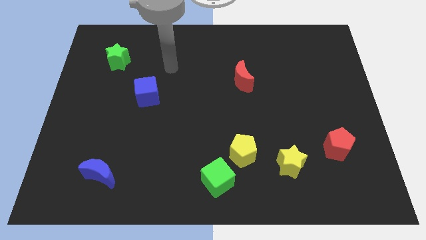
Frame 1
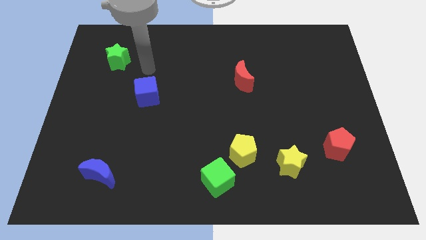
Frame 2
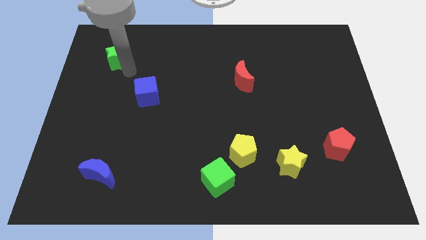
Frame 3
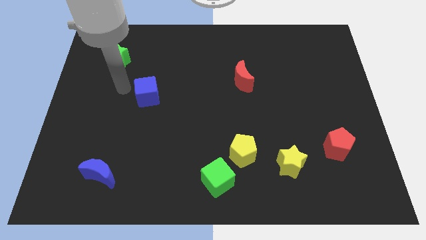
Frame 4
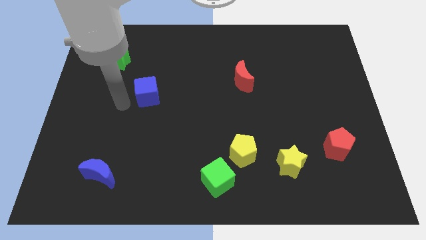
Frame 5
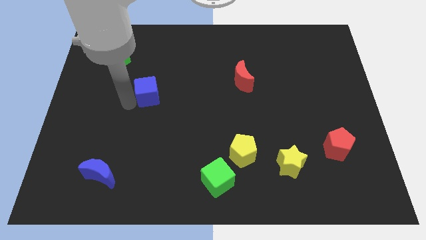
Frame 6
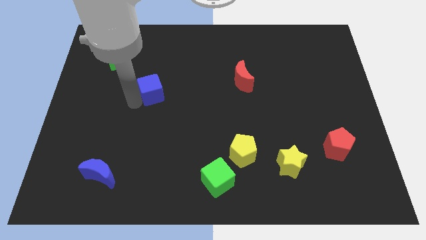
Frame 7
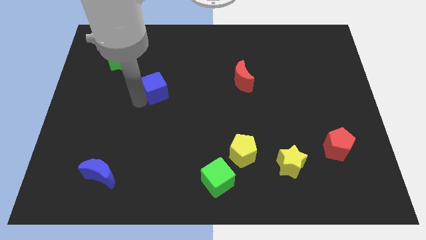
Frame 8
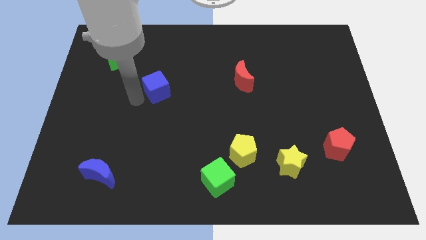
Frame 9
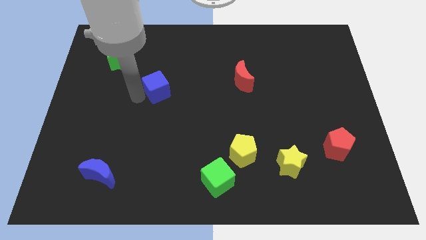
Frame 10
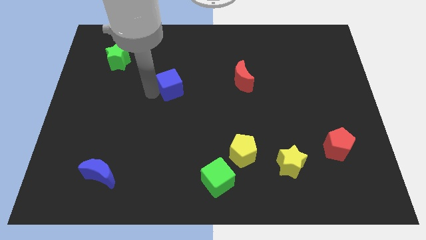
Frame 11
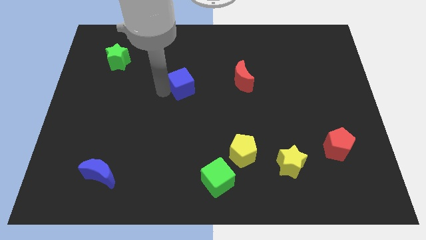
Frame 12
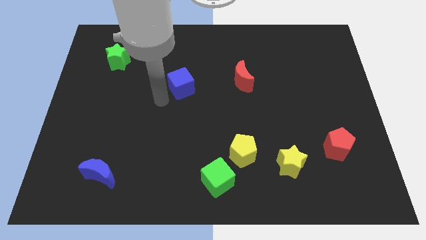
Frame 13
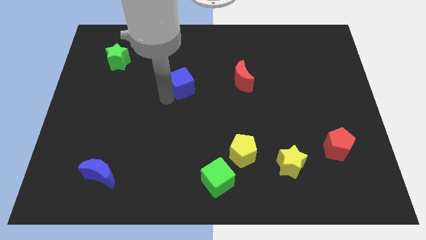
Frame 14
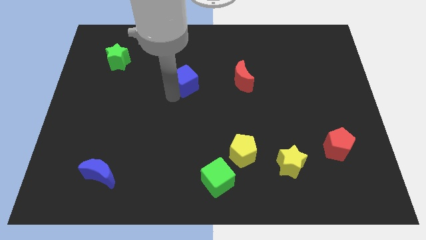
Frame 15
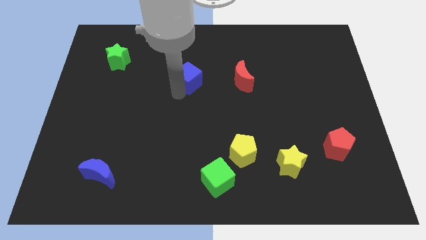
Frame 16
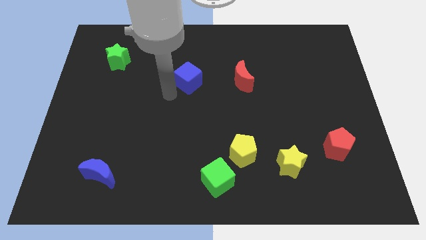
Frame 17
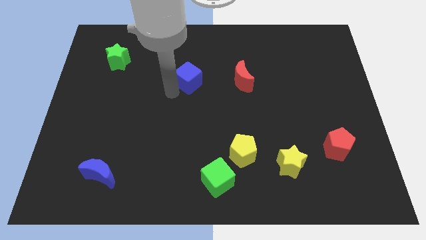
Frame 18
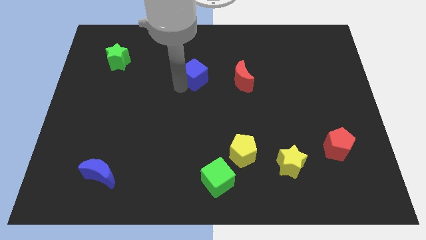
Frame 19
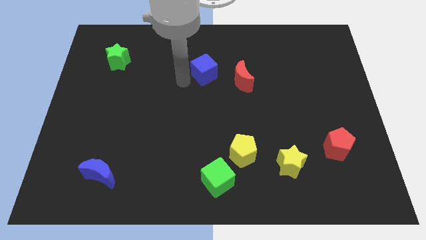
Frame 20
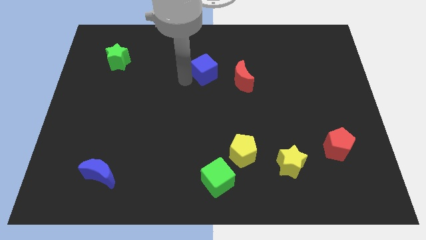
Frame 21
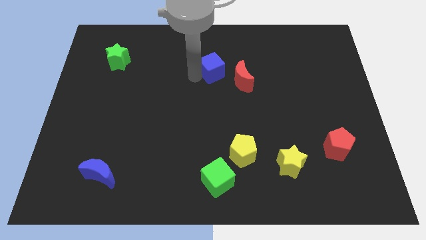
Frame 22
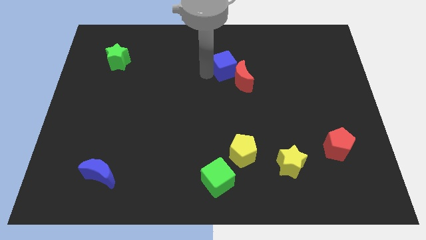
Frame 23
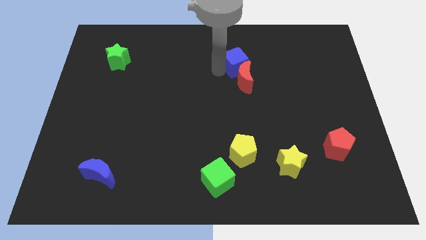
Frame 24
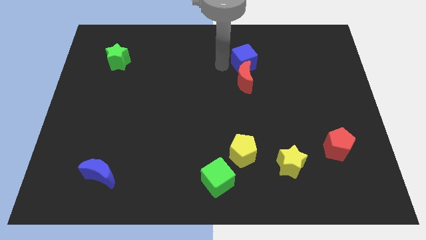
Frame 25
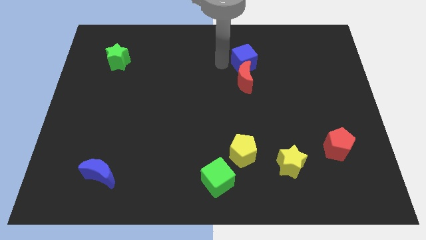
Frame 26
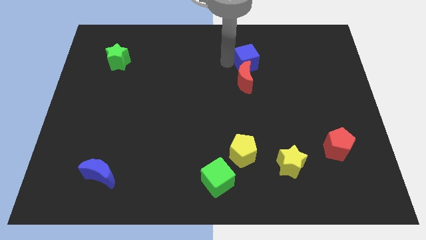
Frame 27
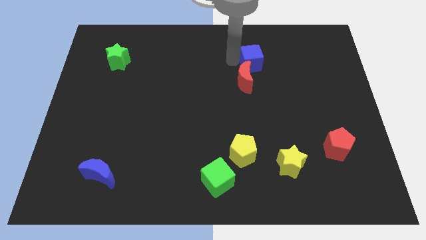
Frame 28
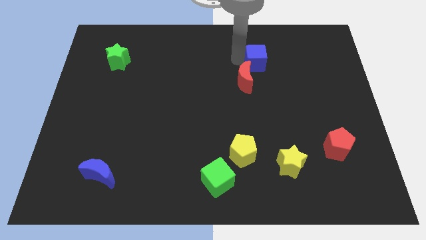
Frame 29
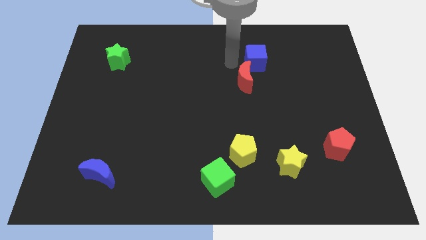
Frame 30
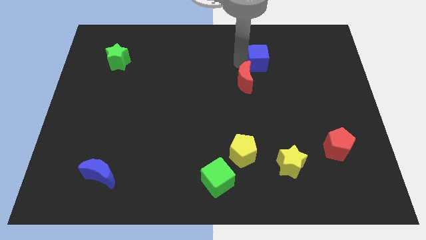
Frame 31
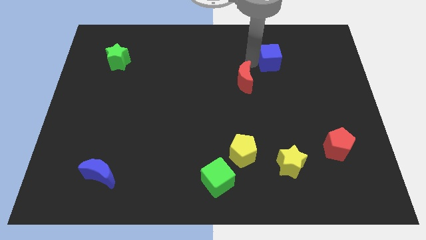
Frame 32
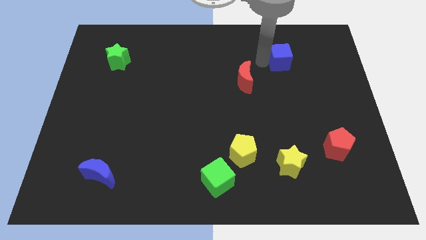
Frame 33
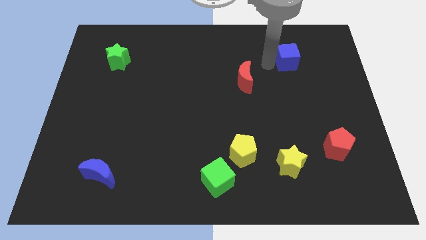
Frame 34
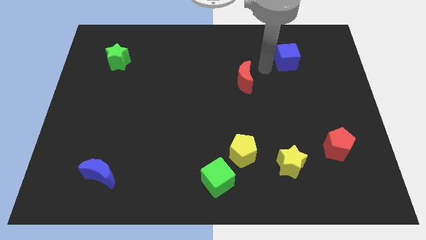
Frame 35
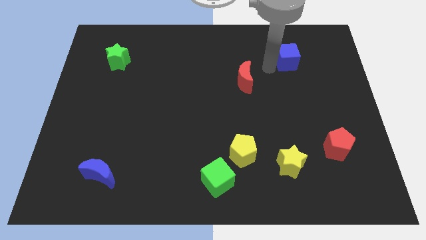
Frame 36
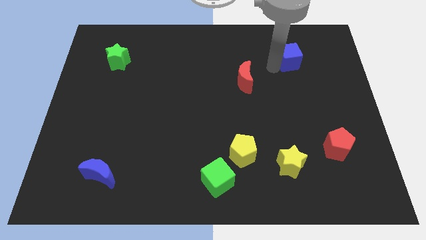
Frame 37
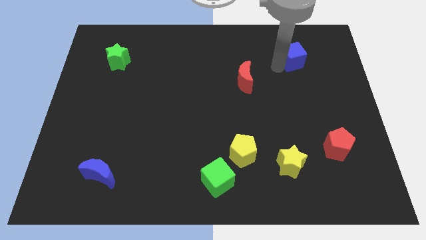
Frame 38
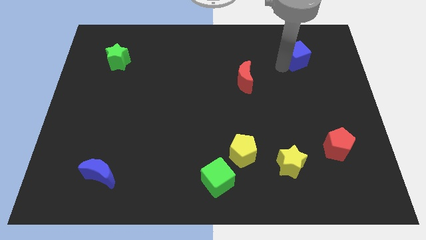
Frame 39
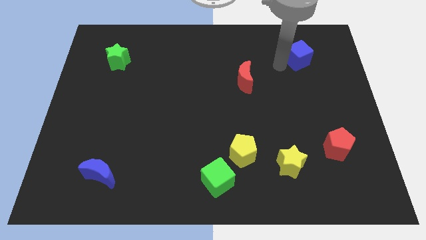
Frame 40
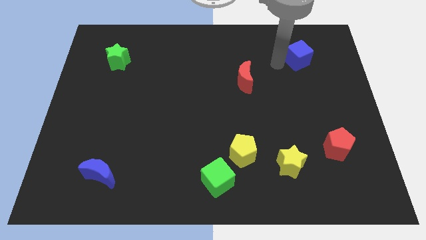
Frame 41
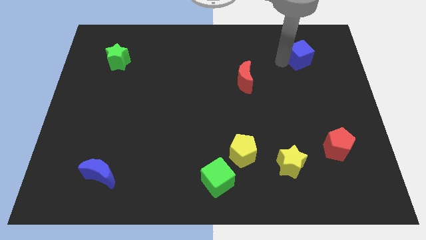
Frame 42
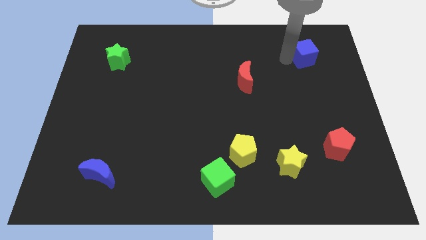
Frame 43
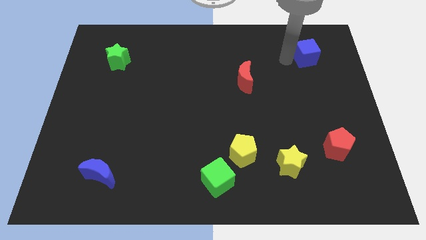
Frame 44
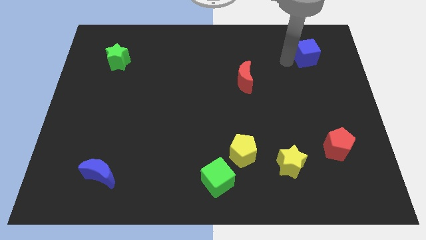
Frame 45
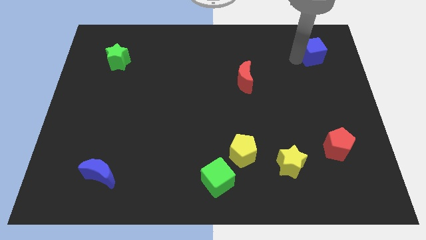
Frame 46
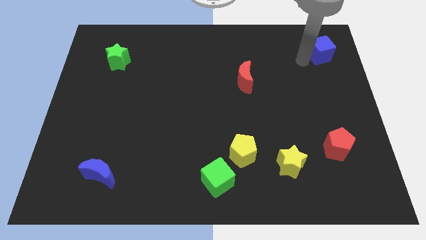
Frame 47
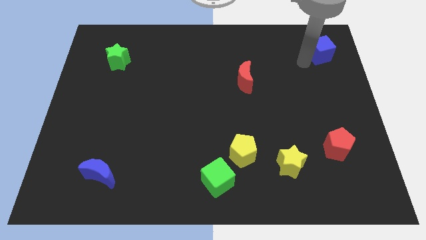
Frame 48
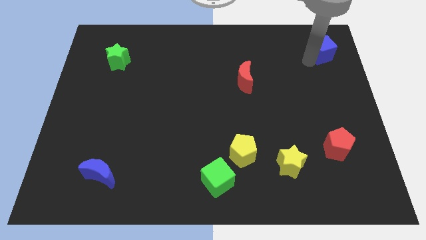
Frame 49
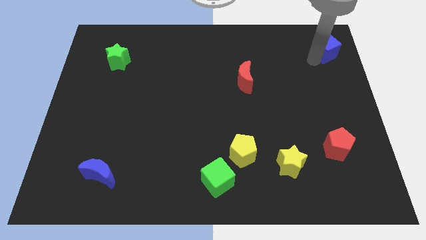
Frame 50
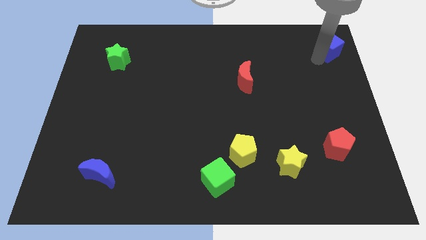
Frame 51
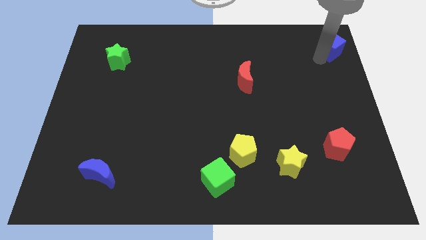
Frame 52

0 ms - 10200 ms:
move the blue cube to the top right corner

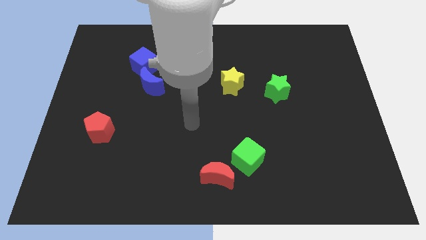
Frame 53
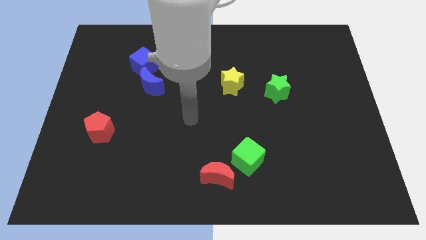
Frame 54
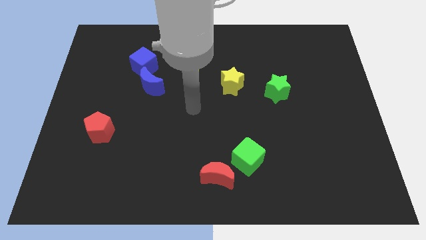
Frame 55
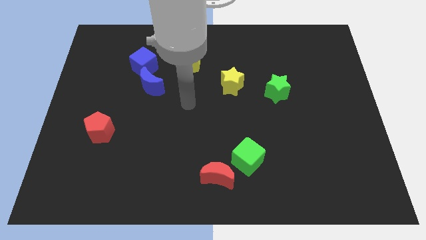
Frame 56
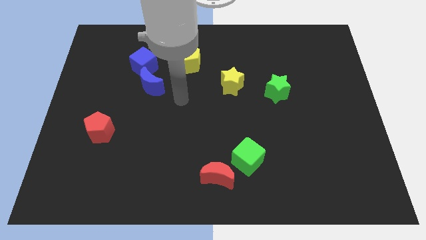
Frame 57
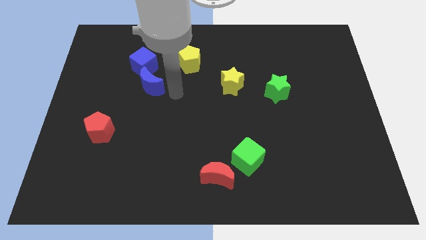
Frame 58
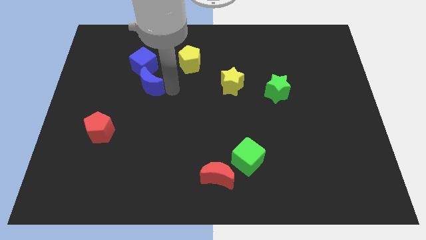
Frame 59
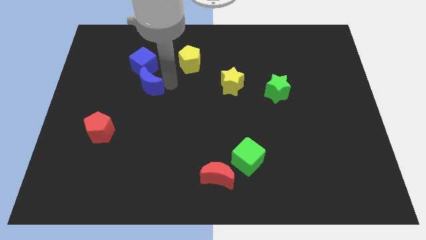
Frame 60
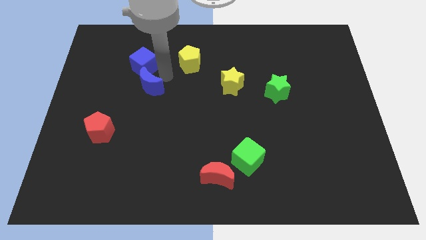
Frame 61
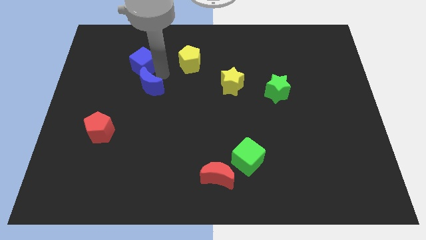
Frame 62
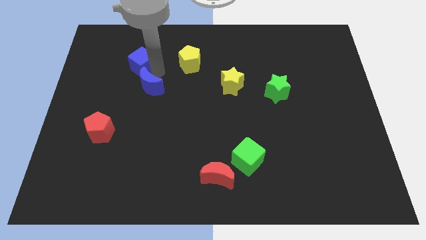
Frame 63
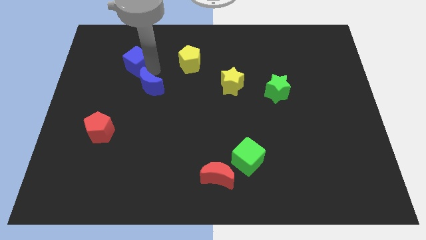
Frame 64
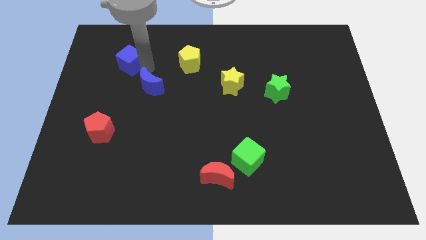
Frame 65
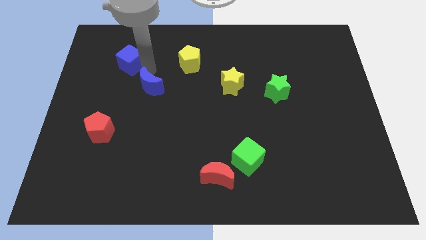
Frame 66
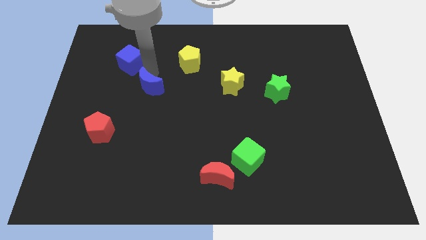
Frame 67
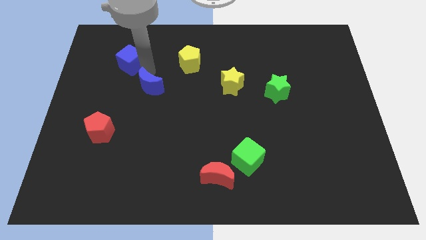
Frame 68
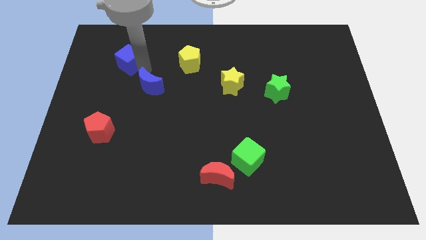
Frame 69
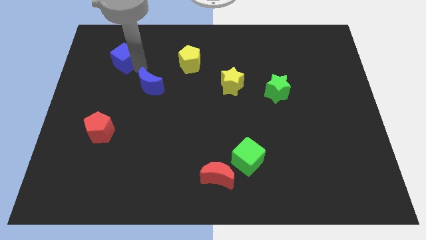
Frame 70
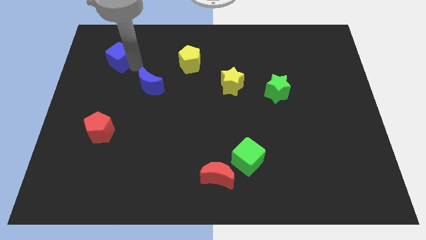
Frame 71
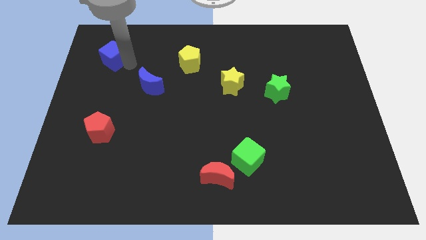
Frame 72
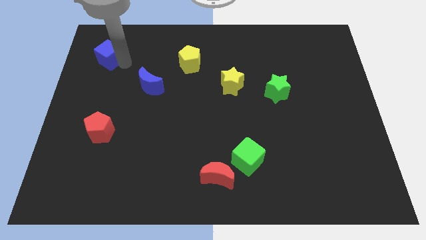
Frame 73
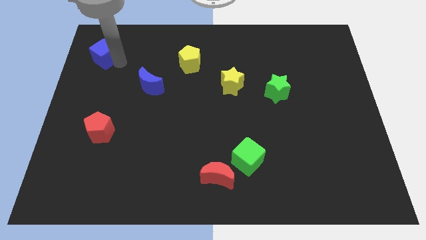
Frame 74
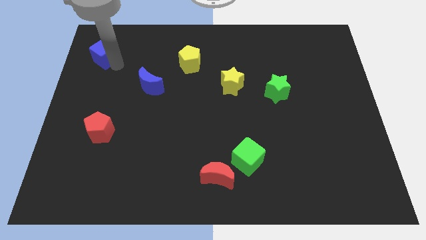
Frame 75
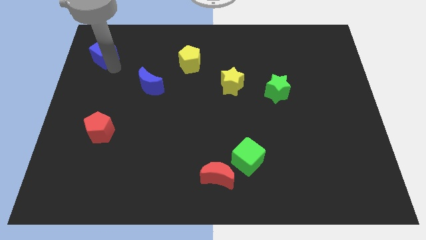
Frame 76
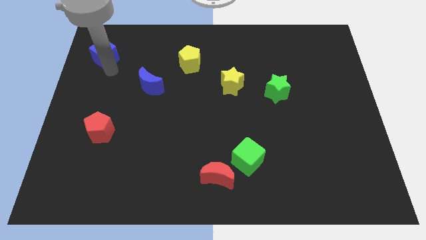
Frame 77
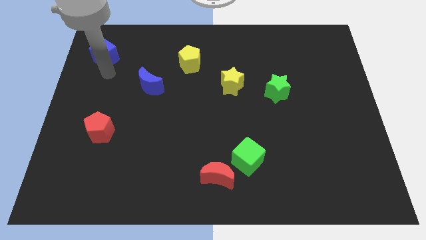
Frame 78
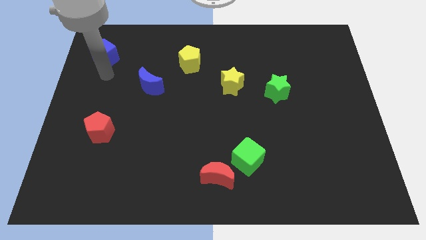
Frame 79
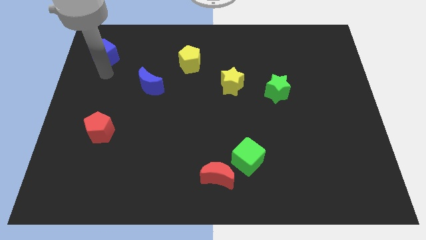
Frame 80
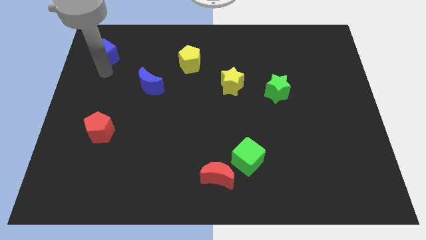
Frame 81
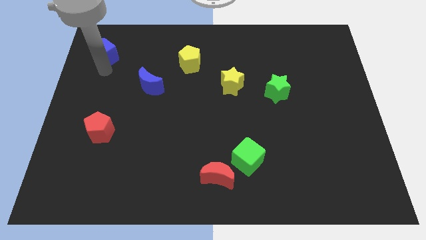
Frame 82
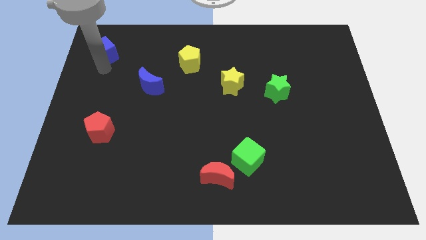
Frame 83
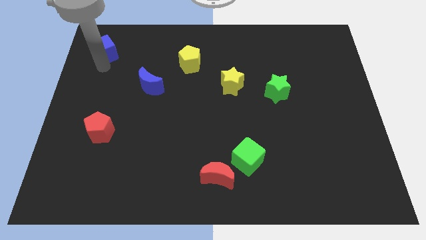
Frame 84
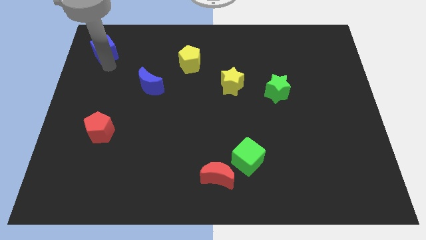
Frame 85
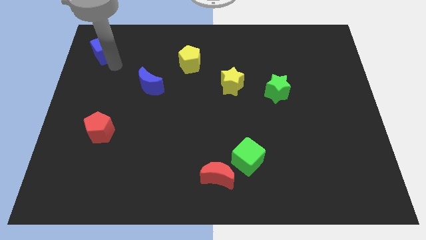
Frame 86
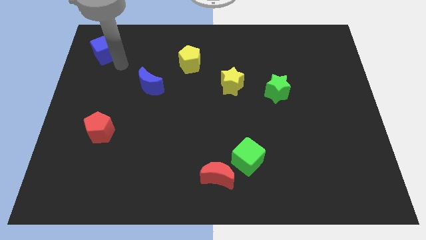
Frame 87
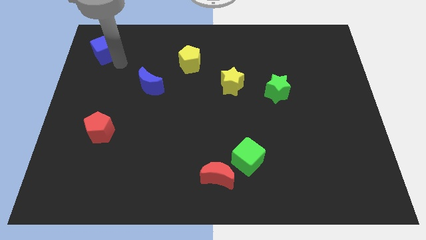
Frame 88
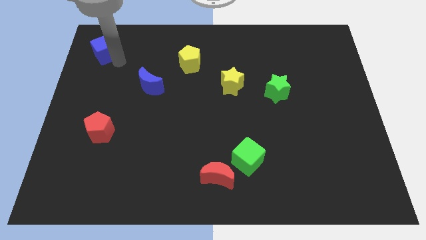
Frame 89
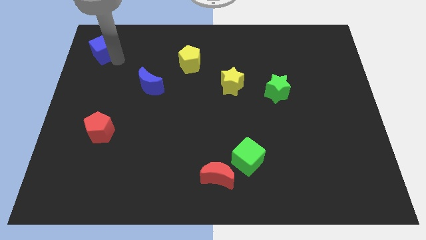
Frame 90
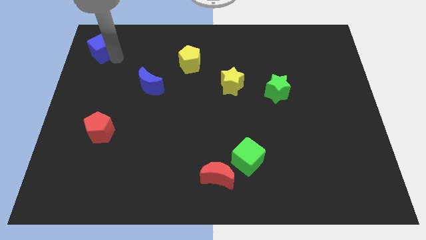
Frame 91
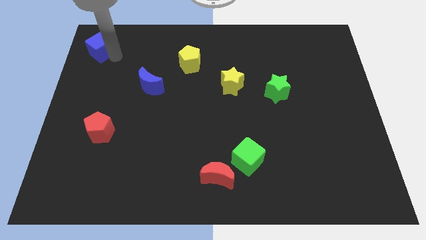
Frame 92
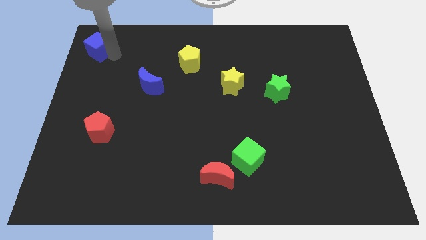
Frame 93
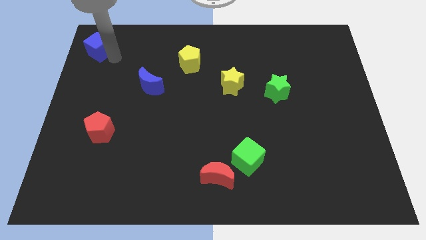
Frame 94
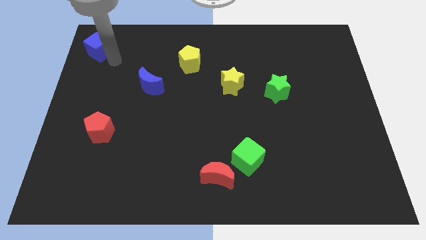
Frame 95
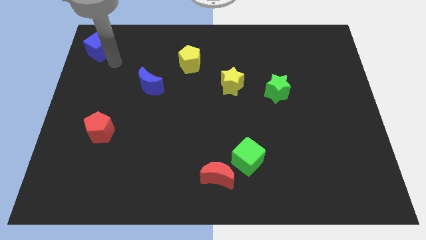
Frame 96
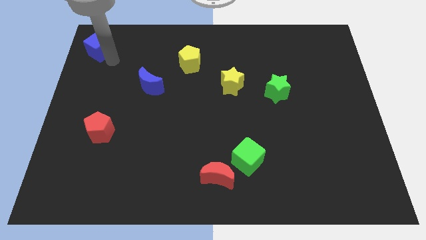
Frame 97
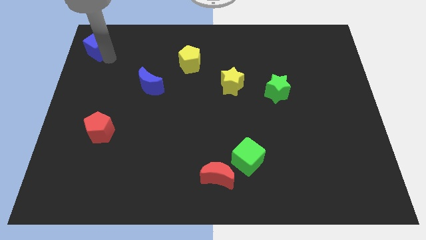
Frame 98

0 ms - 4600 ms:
push the blue cube to the top left corner
